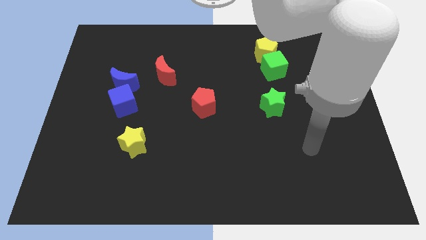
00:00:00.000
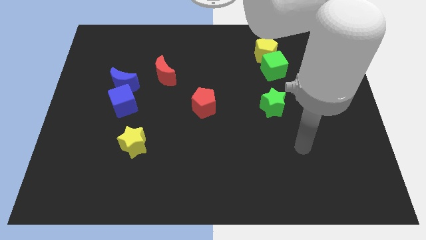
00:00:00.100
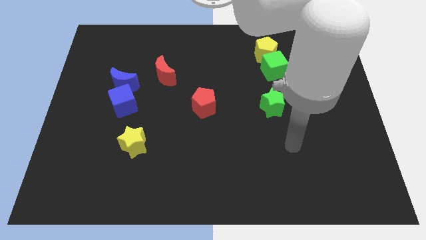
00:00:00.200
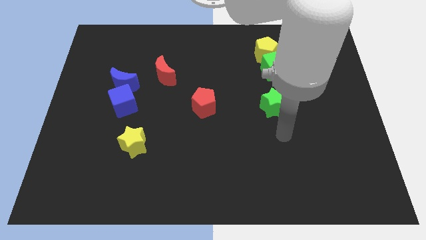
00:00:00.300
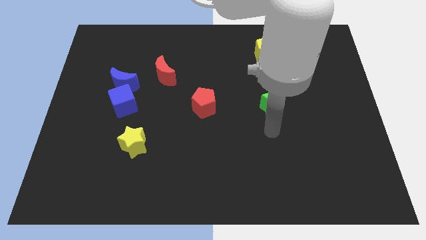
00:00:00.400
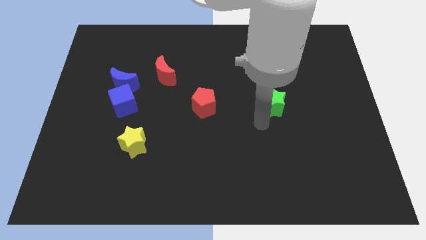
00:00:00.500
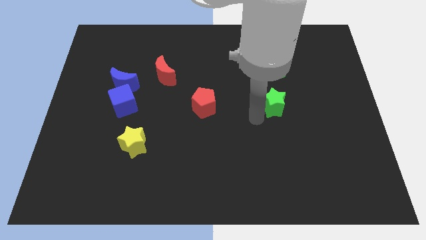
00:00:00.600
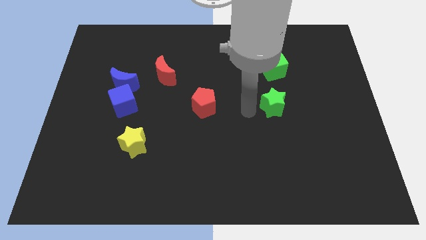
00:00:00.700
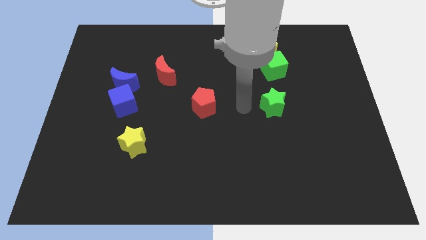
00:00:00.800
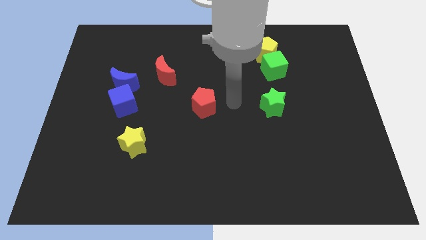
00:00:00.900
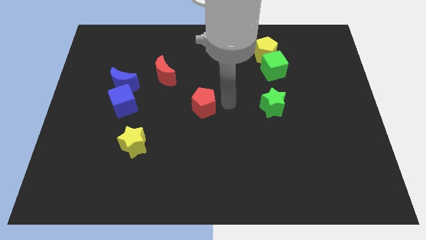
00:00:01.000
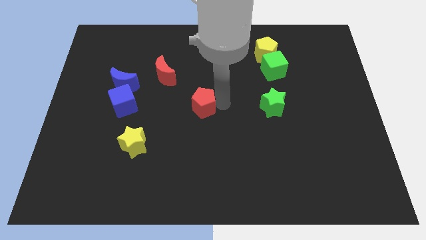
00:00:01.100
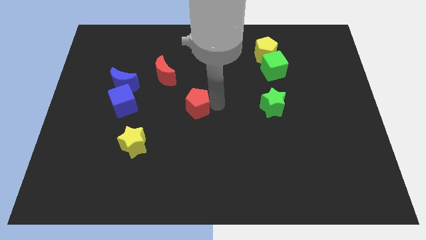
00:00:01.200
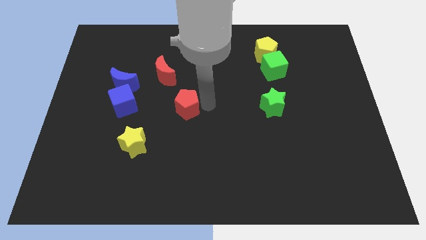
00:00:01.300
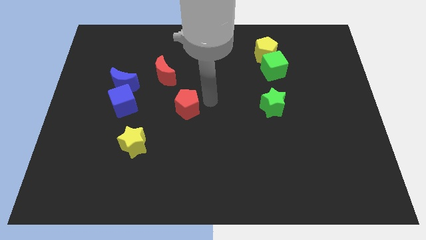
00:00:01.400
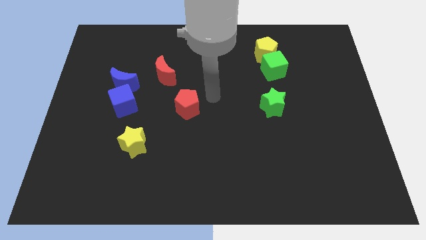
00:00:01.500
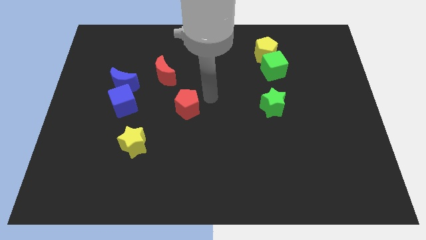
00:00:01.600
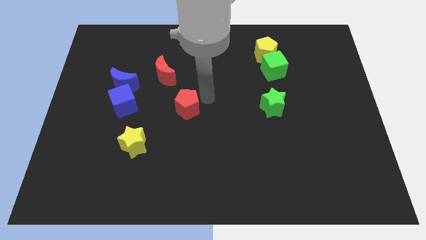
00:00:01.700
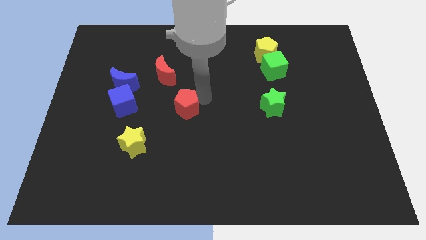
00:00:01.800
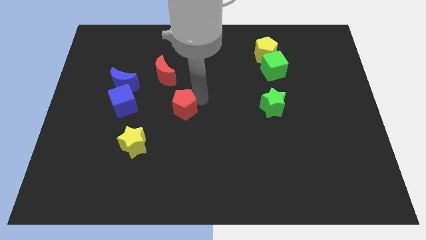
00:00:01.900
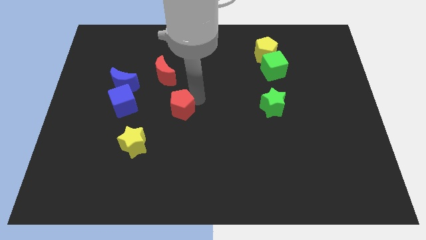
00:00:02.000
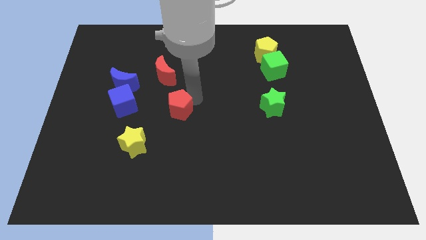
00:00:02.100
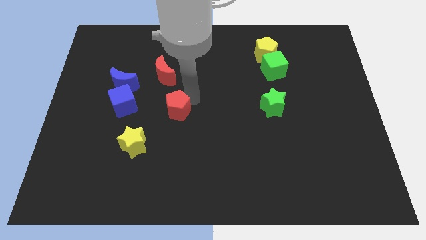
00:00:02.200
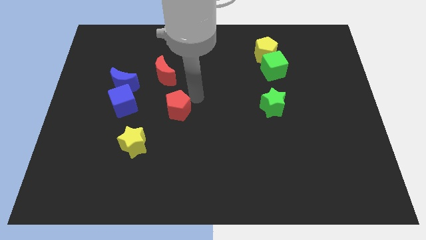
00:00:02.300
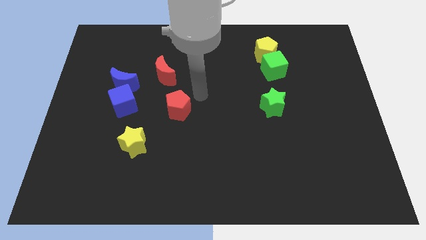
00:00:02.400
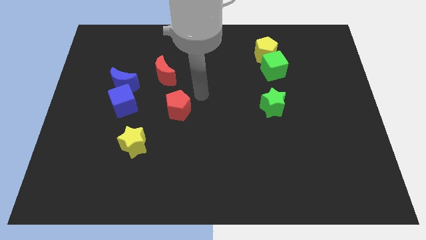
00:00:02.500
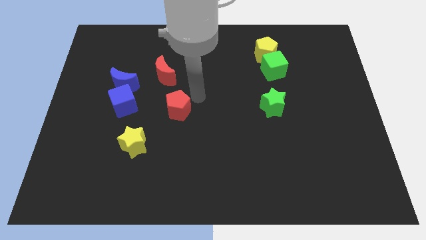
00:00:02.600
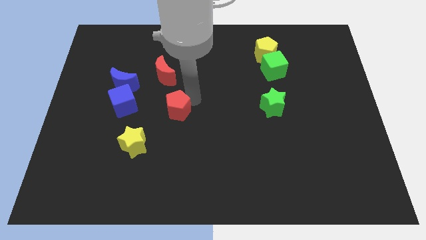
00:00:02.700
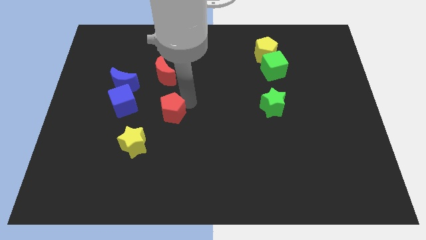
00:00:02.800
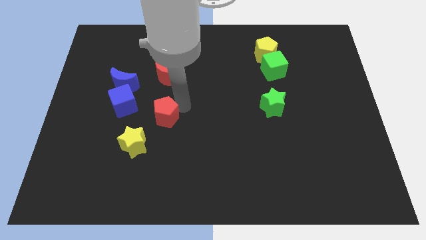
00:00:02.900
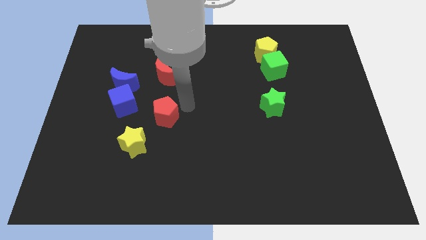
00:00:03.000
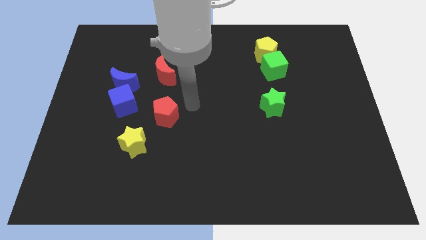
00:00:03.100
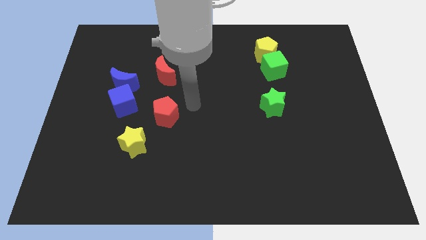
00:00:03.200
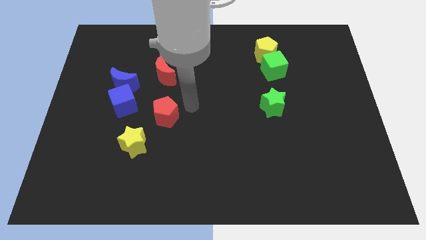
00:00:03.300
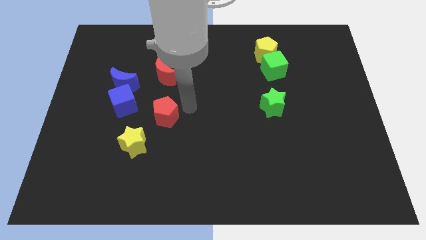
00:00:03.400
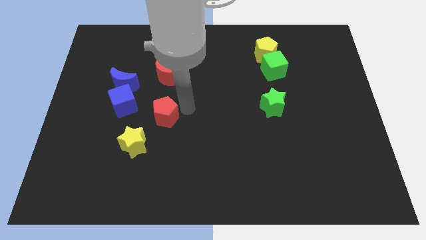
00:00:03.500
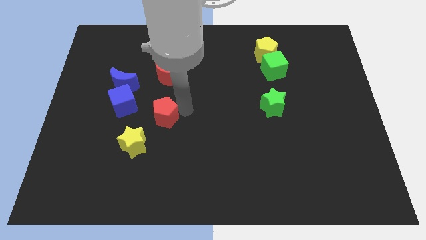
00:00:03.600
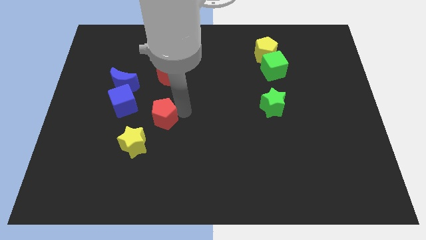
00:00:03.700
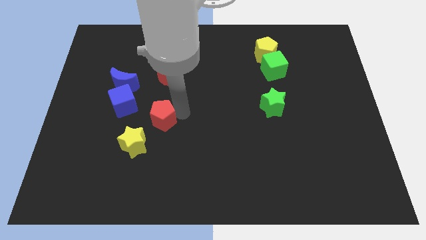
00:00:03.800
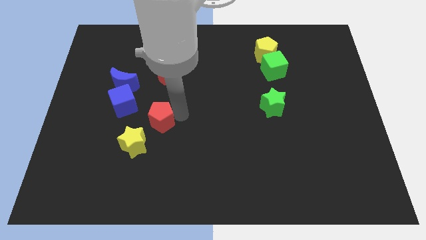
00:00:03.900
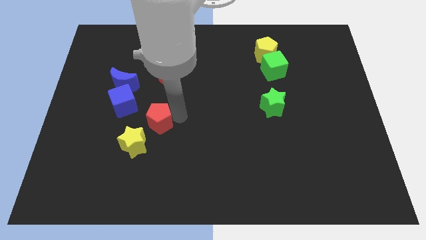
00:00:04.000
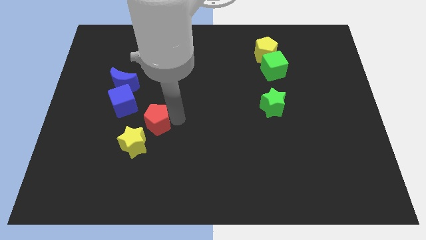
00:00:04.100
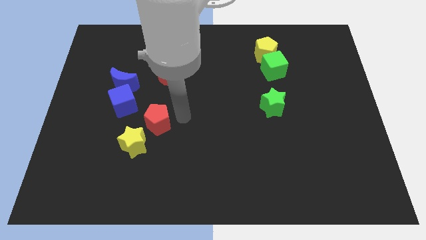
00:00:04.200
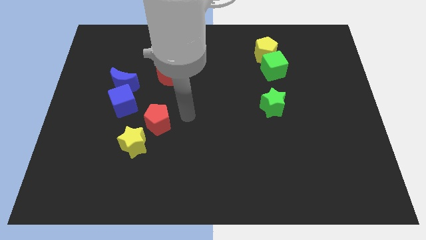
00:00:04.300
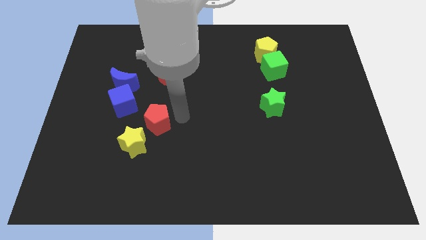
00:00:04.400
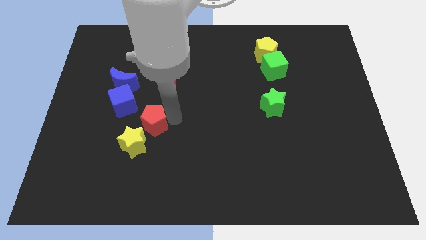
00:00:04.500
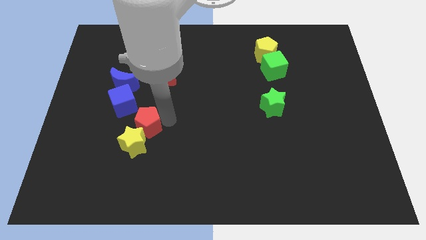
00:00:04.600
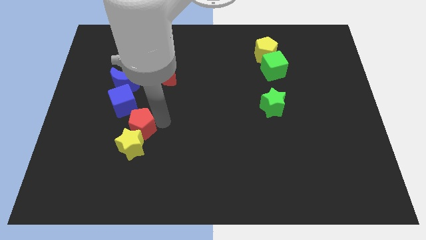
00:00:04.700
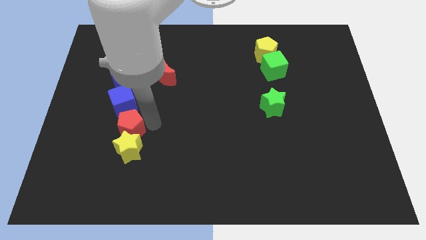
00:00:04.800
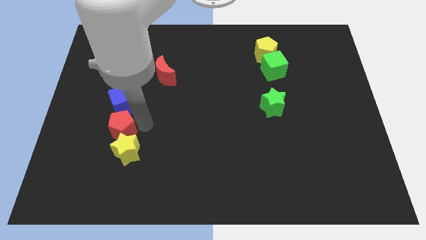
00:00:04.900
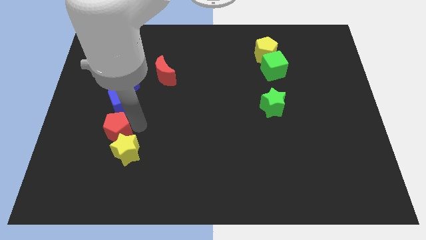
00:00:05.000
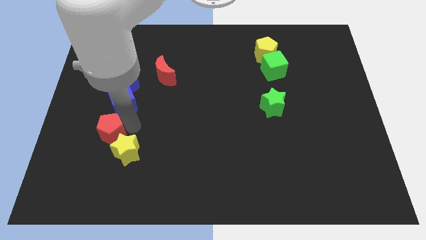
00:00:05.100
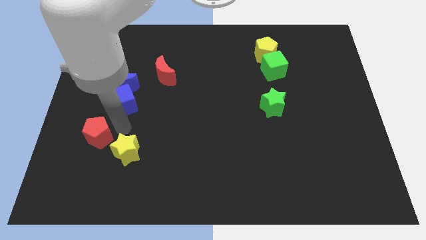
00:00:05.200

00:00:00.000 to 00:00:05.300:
put the red pentagon to the left side of the yellow star

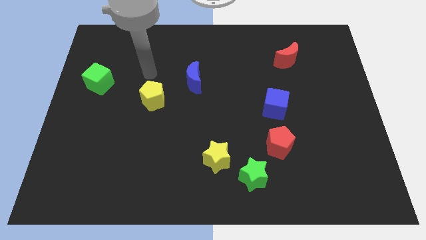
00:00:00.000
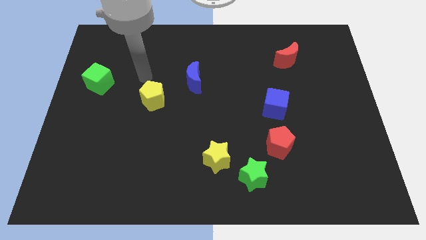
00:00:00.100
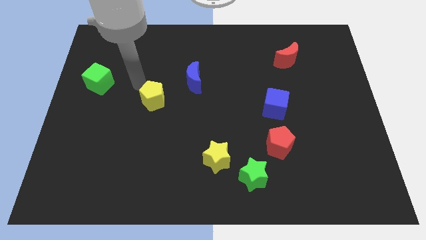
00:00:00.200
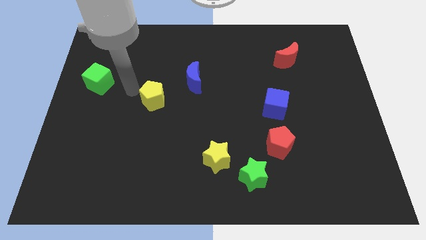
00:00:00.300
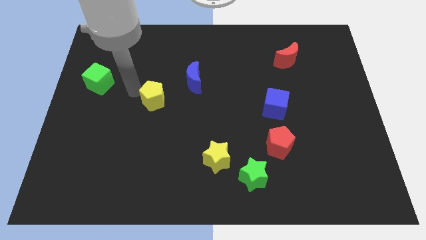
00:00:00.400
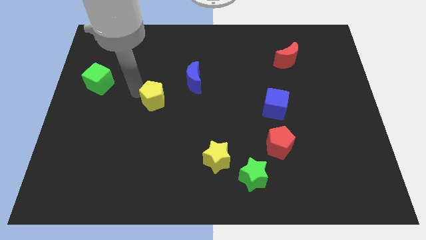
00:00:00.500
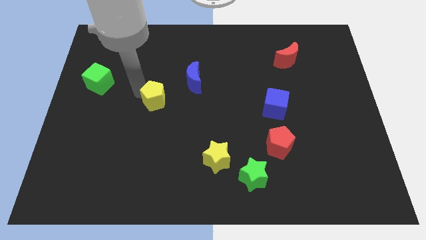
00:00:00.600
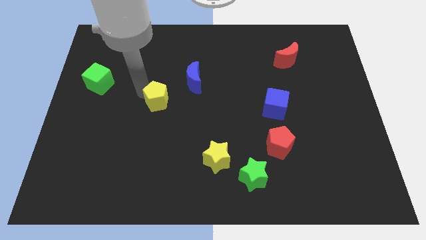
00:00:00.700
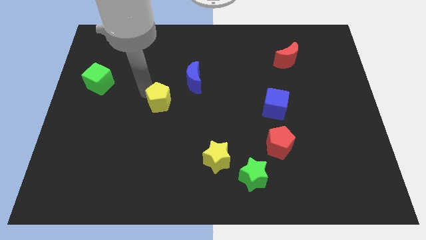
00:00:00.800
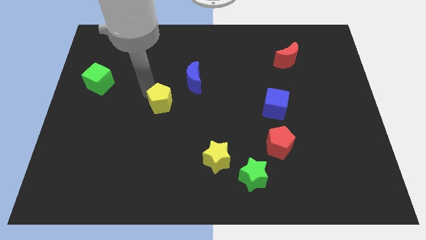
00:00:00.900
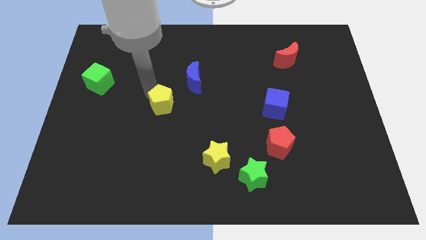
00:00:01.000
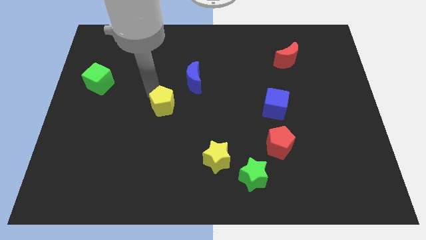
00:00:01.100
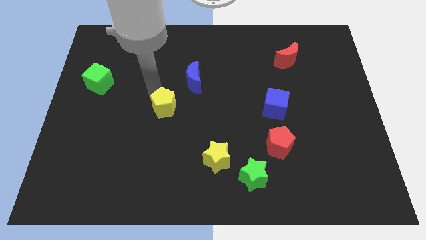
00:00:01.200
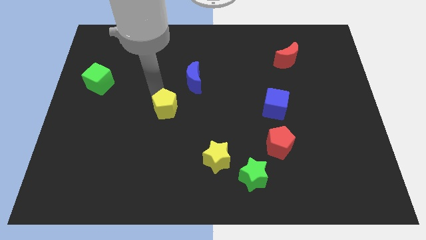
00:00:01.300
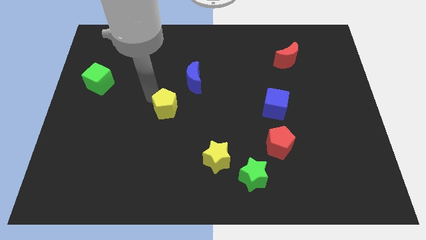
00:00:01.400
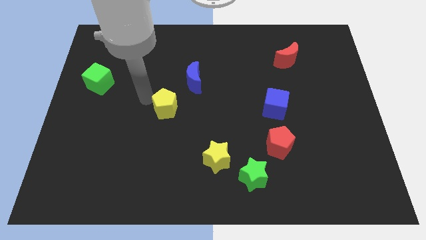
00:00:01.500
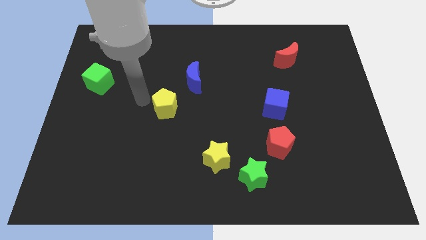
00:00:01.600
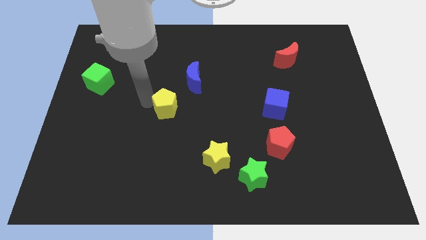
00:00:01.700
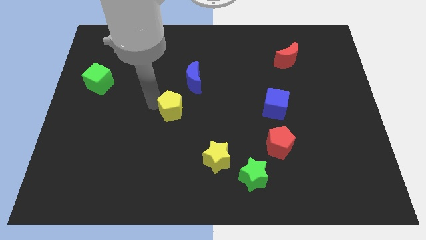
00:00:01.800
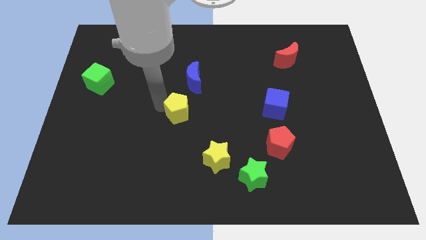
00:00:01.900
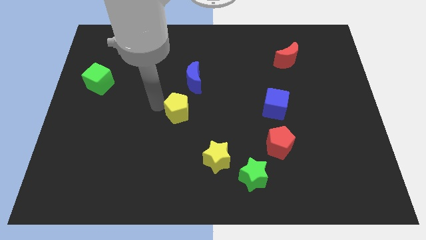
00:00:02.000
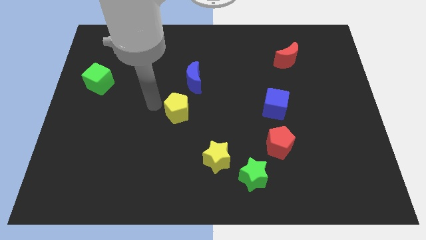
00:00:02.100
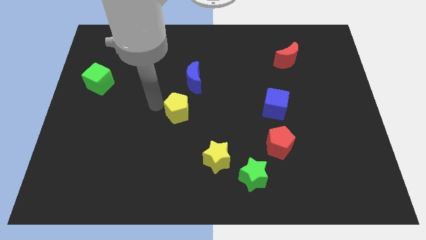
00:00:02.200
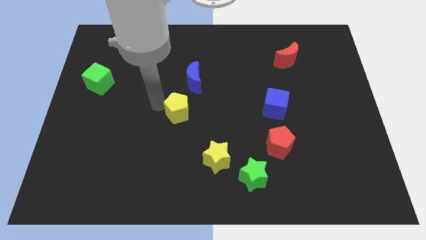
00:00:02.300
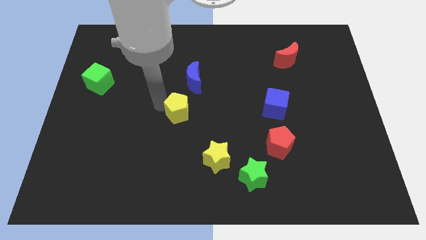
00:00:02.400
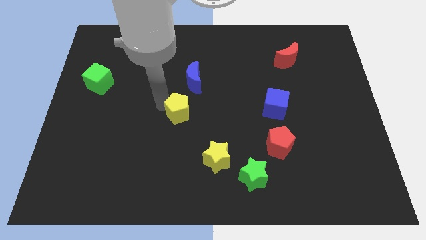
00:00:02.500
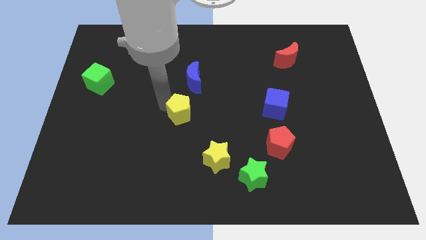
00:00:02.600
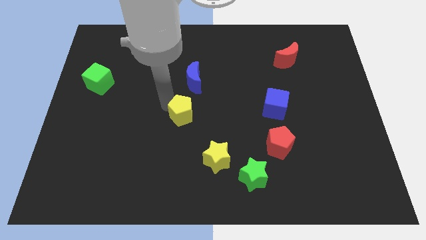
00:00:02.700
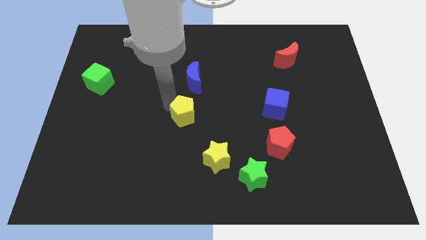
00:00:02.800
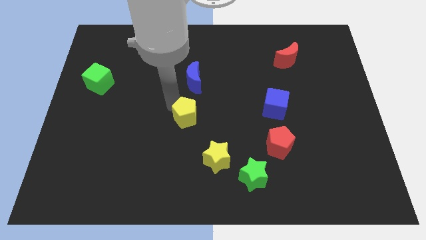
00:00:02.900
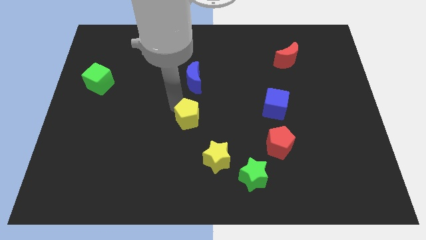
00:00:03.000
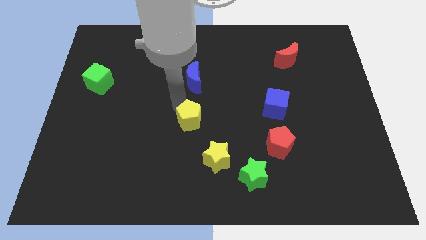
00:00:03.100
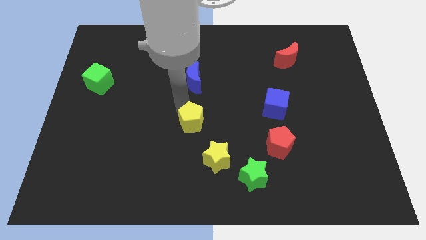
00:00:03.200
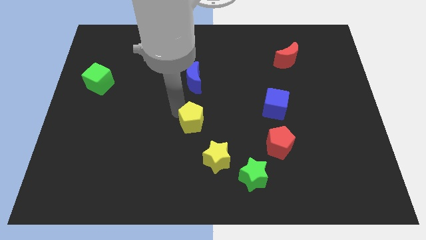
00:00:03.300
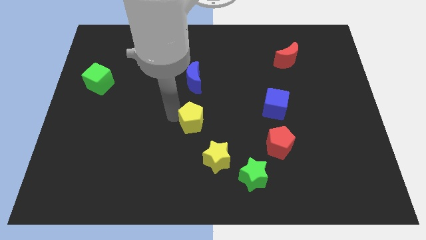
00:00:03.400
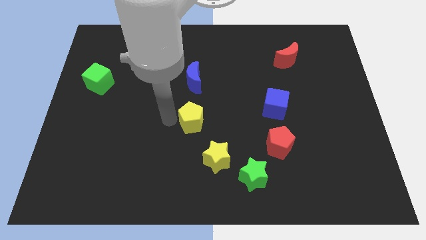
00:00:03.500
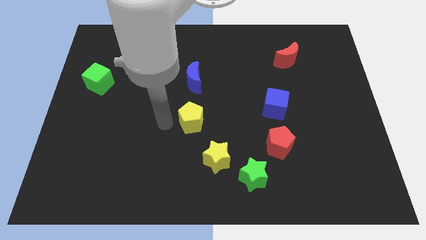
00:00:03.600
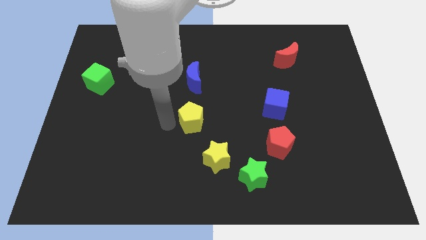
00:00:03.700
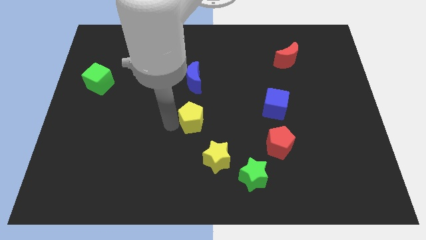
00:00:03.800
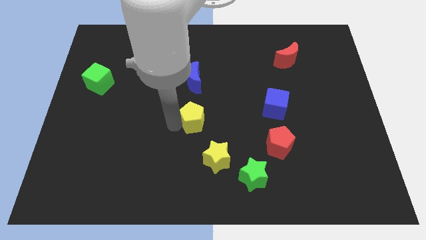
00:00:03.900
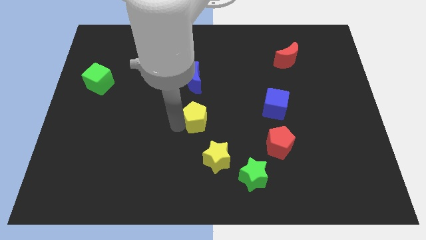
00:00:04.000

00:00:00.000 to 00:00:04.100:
move the yellow pentagon to the top of the yellow star
